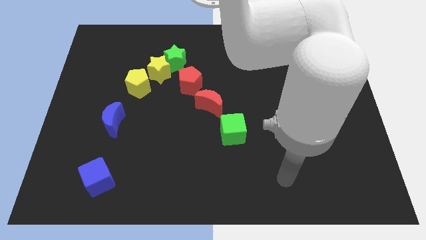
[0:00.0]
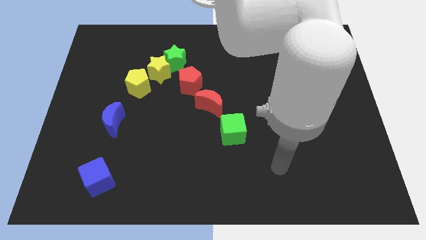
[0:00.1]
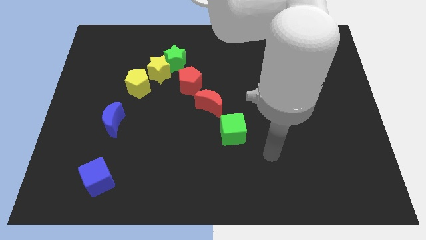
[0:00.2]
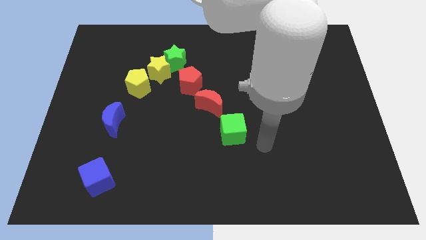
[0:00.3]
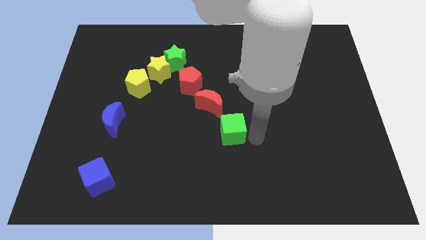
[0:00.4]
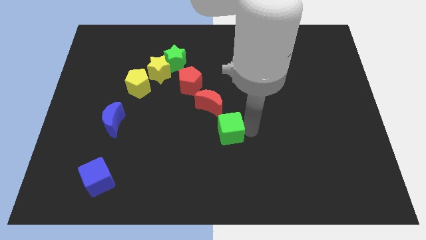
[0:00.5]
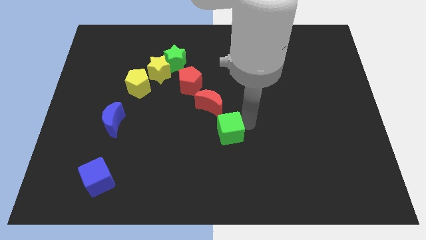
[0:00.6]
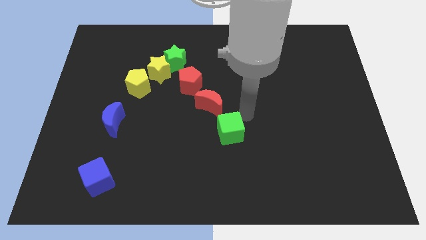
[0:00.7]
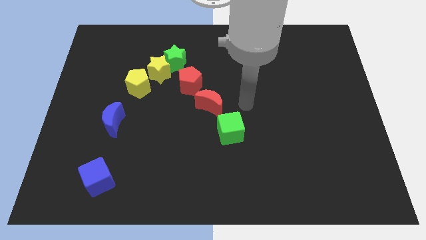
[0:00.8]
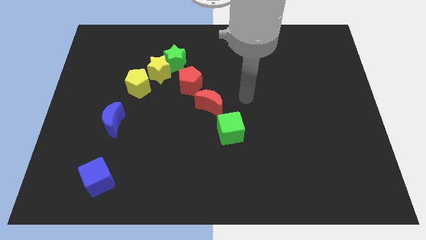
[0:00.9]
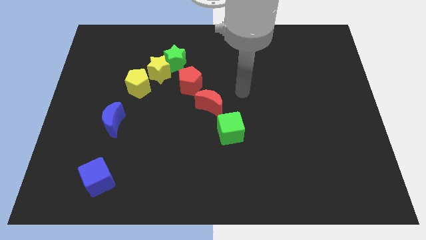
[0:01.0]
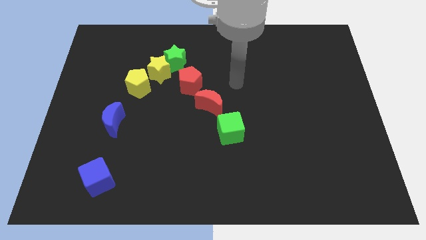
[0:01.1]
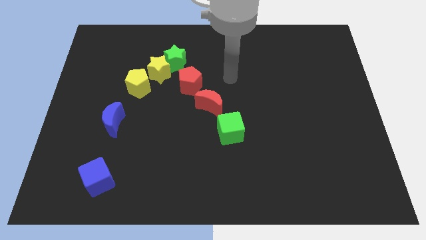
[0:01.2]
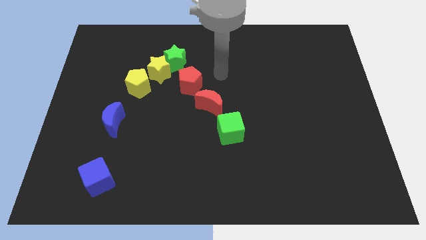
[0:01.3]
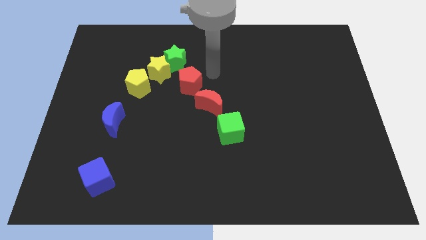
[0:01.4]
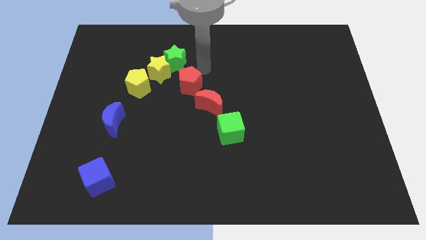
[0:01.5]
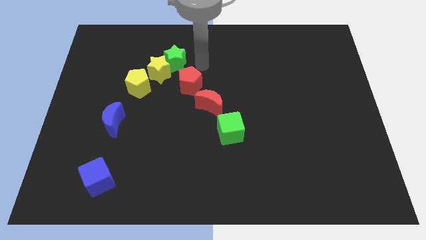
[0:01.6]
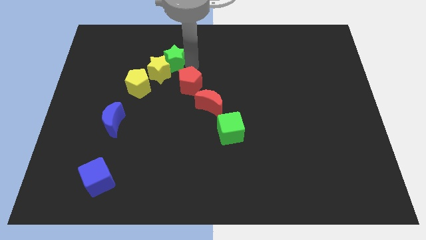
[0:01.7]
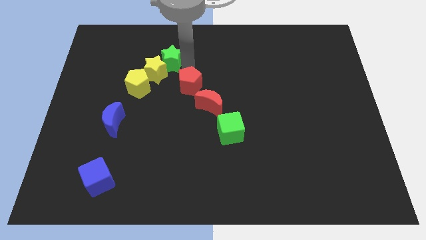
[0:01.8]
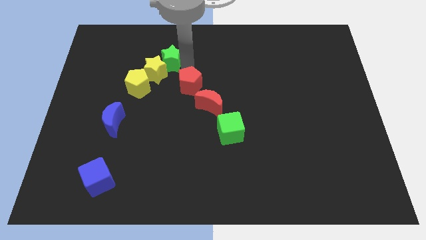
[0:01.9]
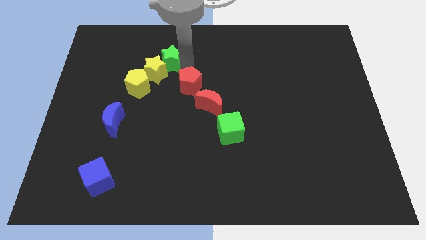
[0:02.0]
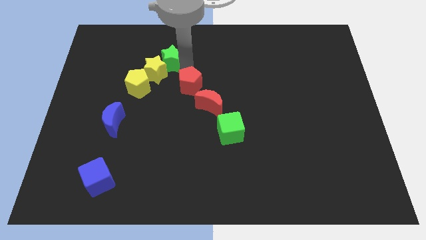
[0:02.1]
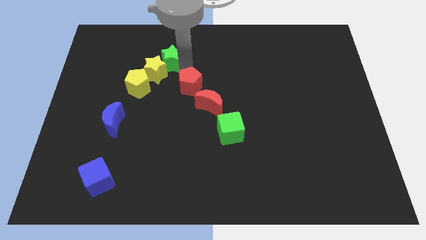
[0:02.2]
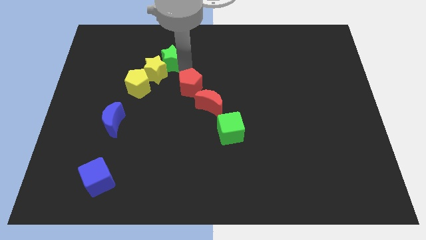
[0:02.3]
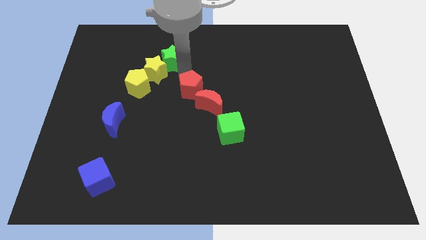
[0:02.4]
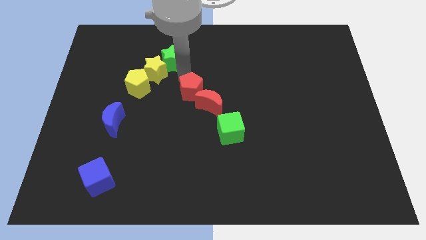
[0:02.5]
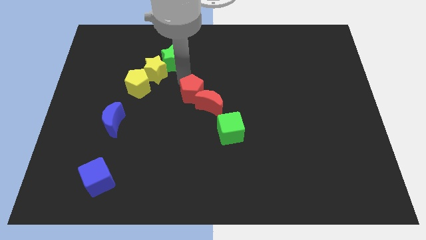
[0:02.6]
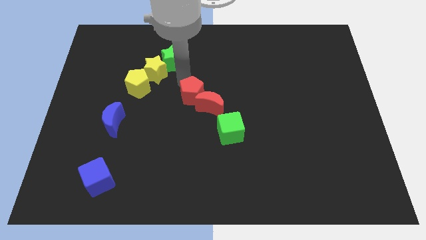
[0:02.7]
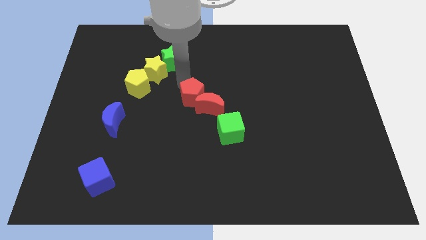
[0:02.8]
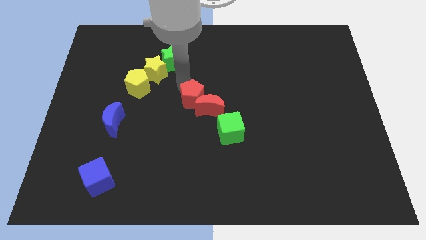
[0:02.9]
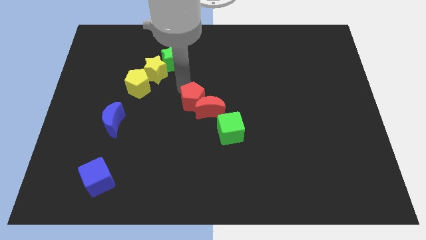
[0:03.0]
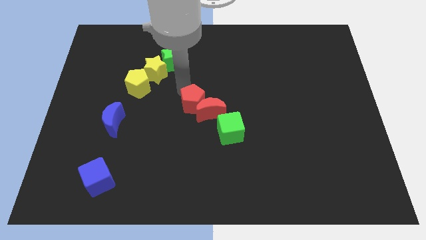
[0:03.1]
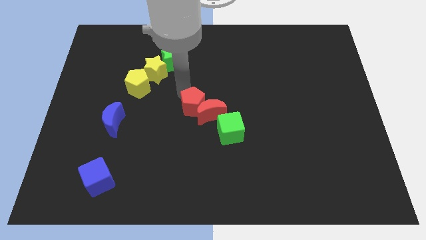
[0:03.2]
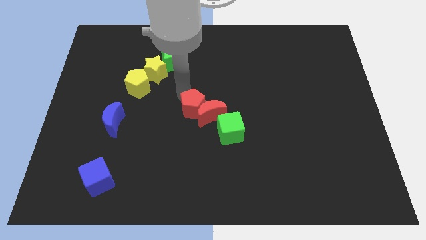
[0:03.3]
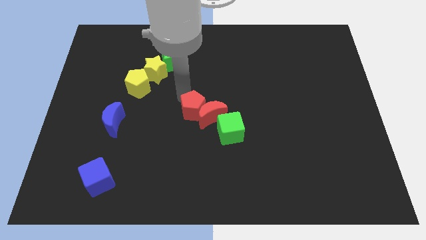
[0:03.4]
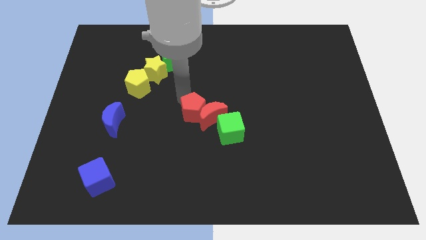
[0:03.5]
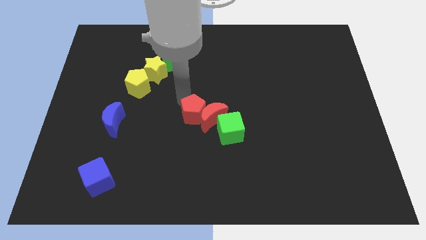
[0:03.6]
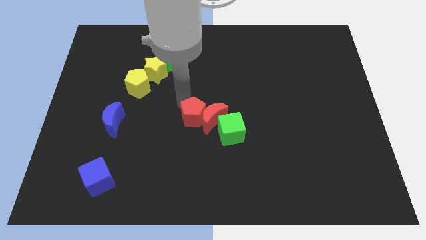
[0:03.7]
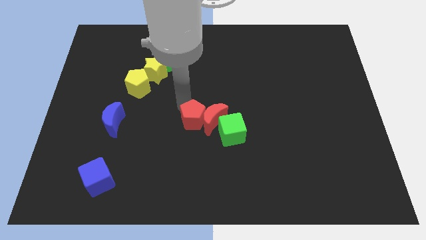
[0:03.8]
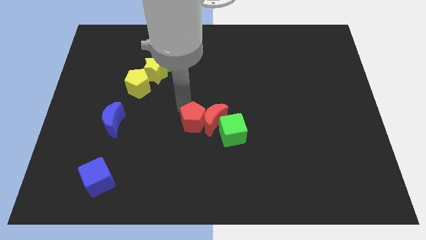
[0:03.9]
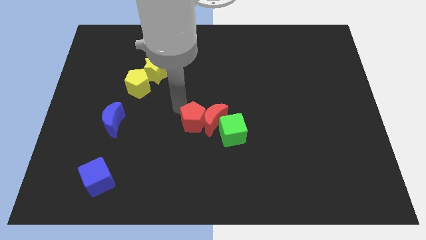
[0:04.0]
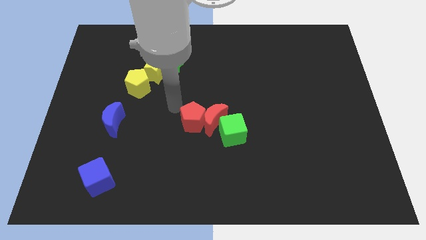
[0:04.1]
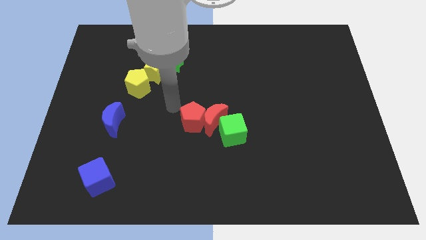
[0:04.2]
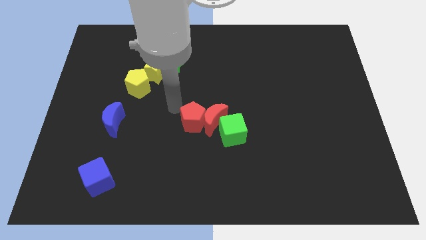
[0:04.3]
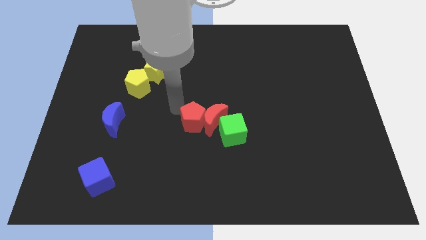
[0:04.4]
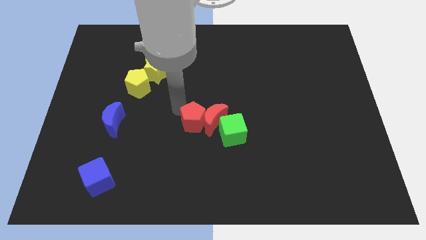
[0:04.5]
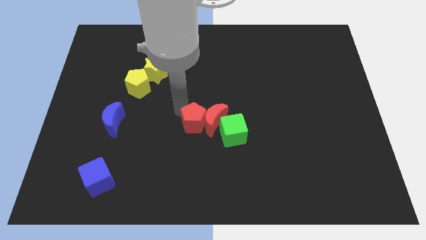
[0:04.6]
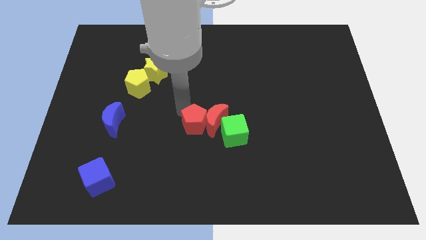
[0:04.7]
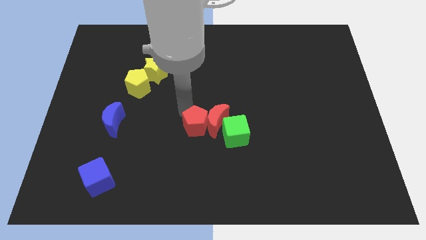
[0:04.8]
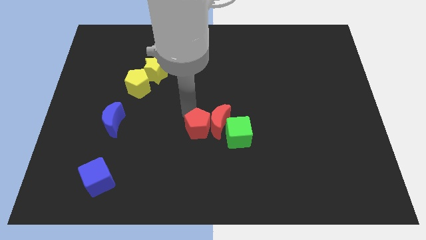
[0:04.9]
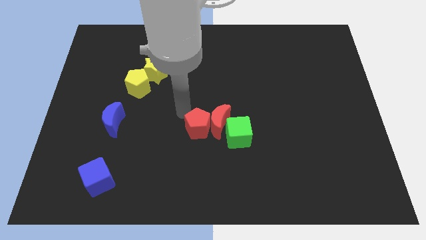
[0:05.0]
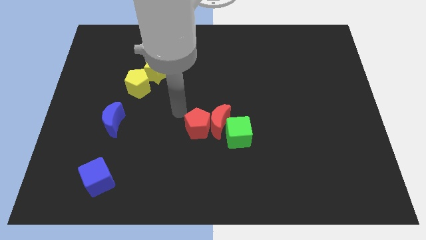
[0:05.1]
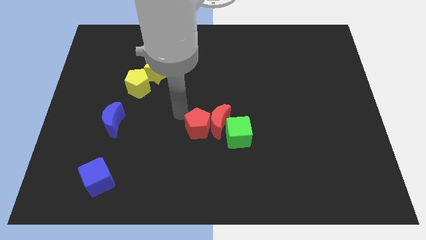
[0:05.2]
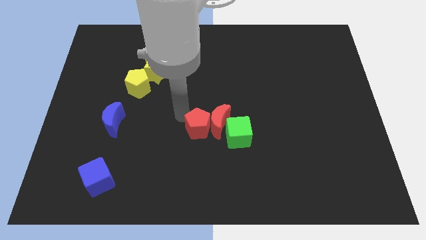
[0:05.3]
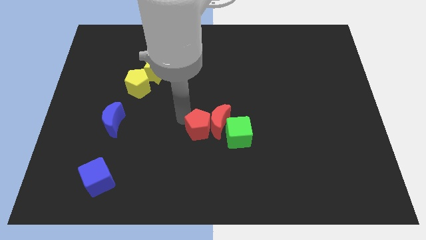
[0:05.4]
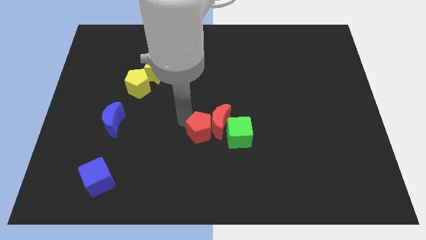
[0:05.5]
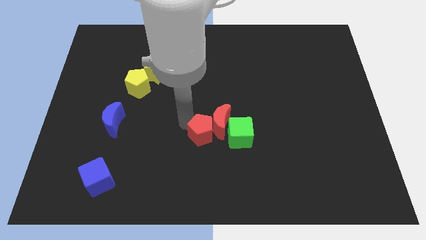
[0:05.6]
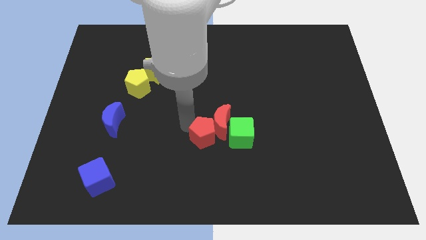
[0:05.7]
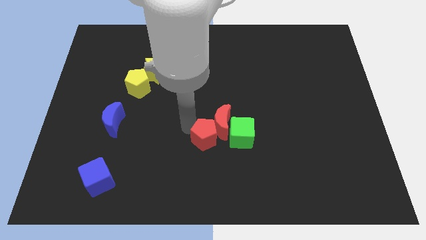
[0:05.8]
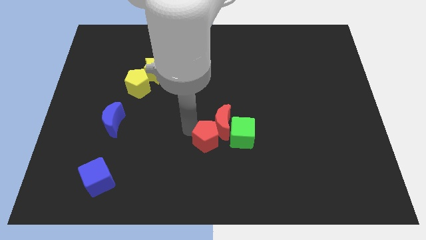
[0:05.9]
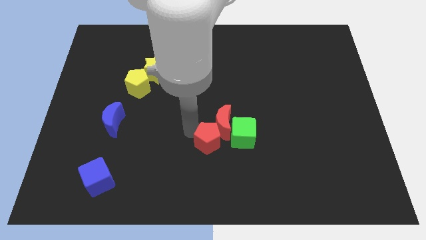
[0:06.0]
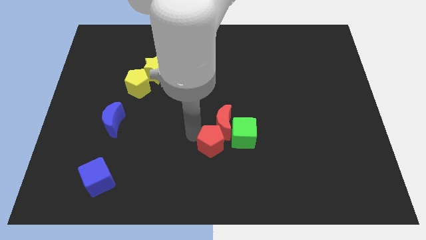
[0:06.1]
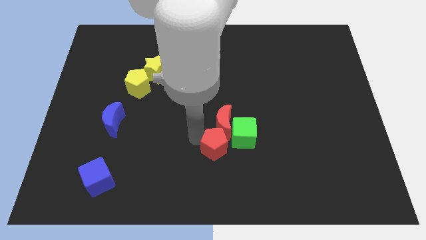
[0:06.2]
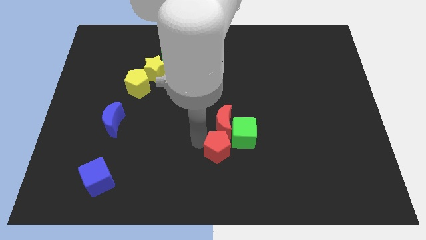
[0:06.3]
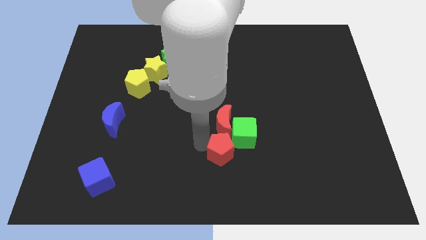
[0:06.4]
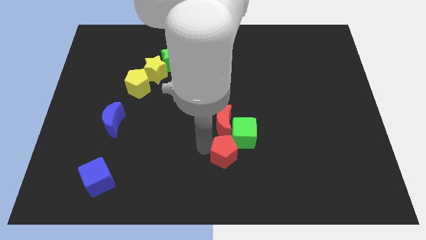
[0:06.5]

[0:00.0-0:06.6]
slide the red pentagon to the bottom side of the green cube
